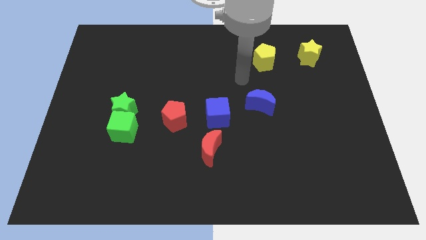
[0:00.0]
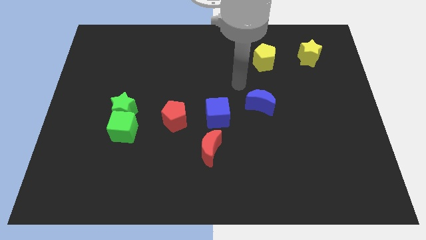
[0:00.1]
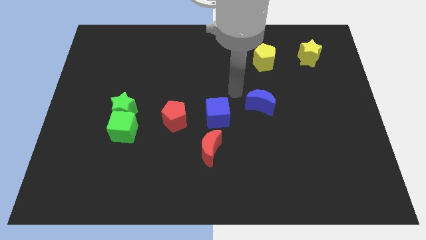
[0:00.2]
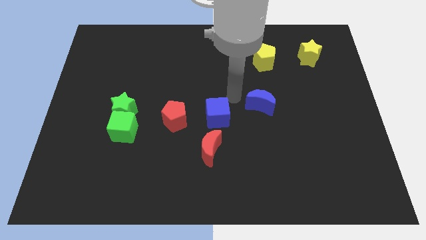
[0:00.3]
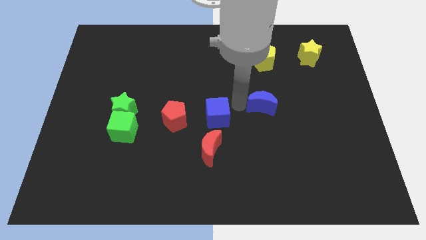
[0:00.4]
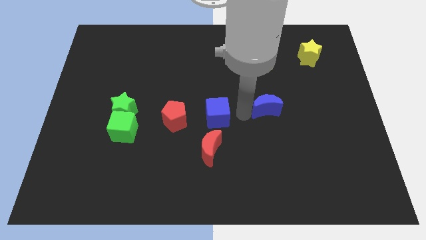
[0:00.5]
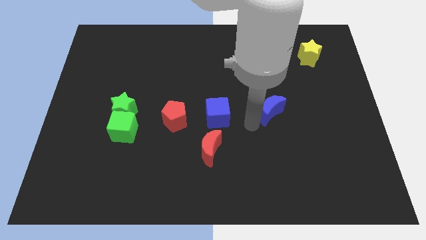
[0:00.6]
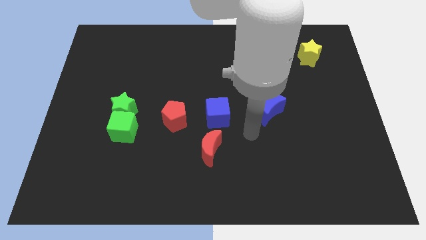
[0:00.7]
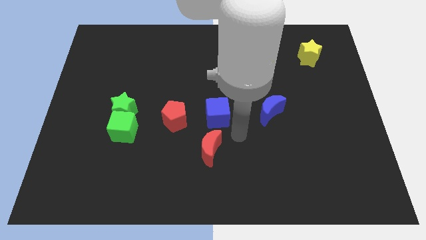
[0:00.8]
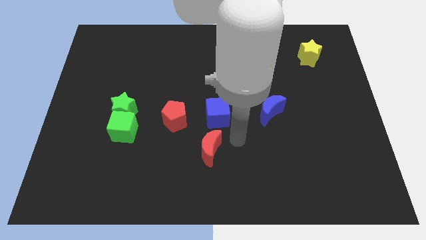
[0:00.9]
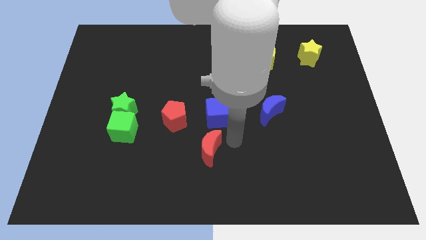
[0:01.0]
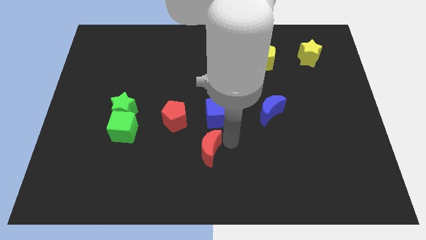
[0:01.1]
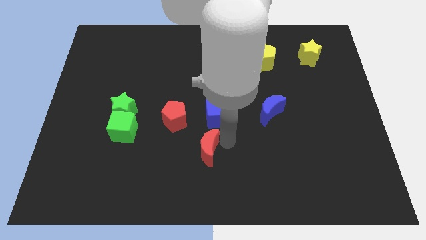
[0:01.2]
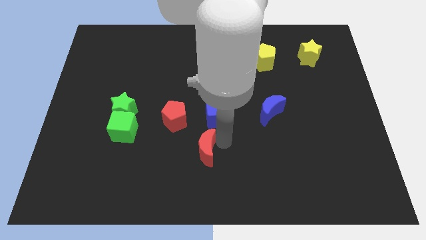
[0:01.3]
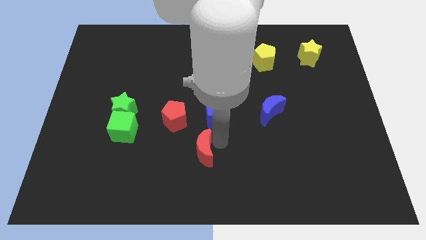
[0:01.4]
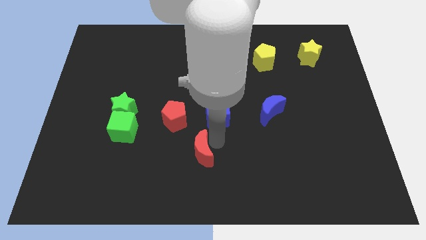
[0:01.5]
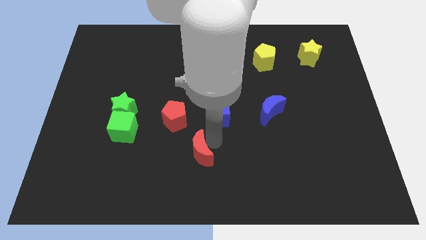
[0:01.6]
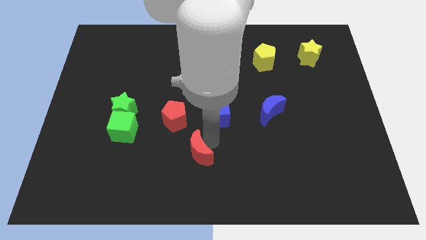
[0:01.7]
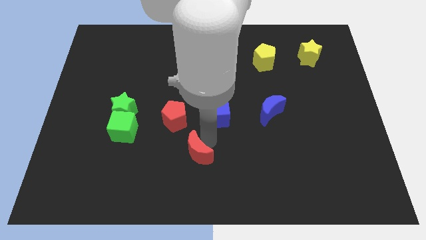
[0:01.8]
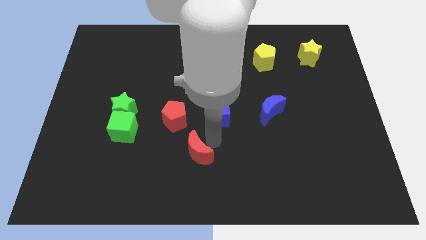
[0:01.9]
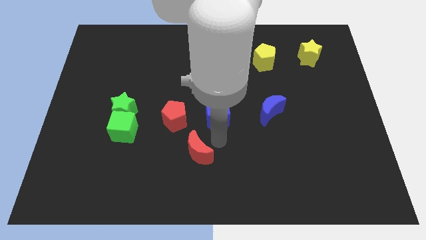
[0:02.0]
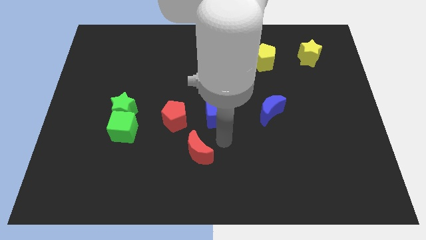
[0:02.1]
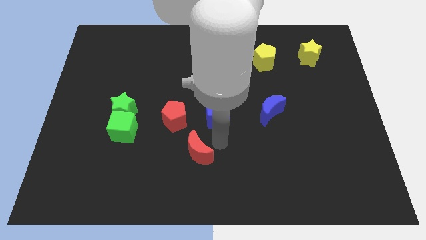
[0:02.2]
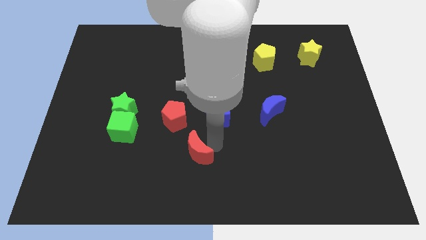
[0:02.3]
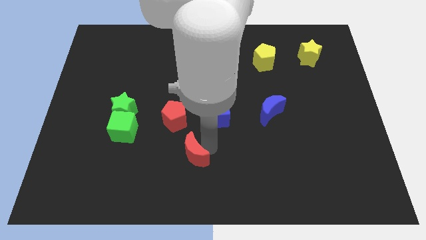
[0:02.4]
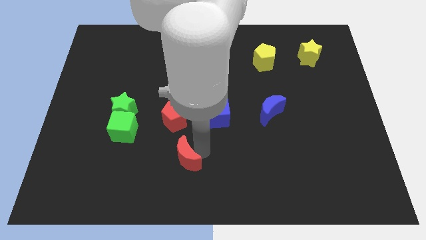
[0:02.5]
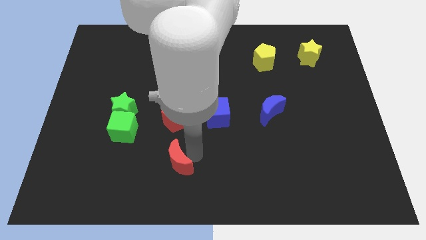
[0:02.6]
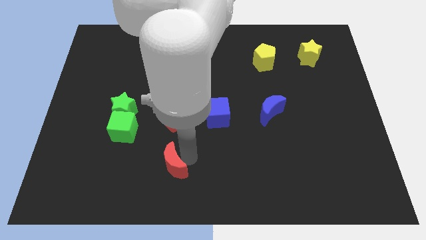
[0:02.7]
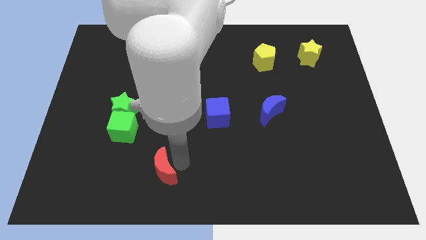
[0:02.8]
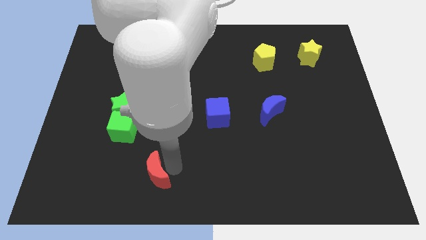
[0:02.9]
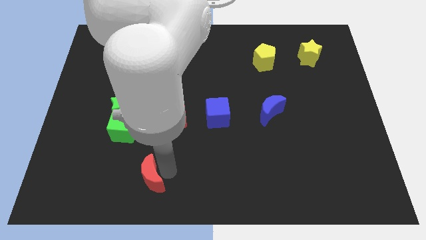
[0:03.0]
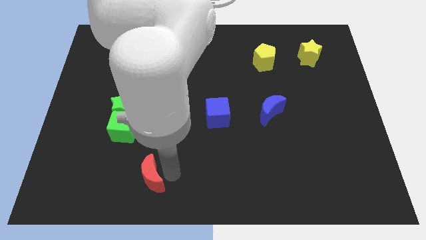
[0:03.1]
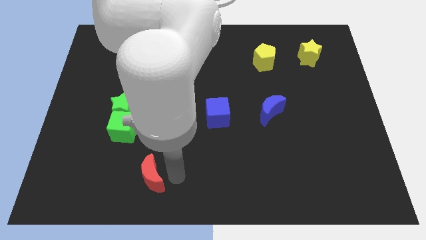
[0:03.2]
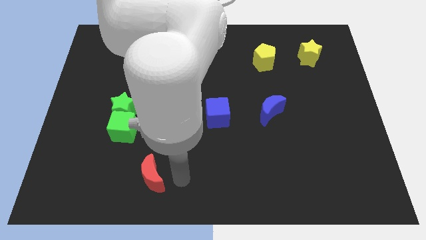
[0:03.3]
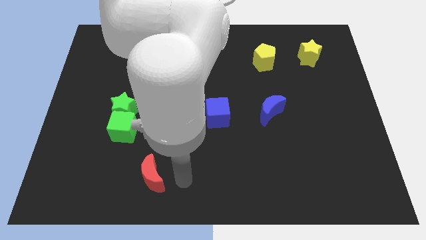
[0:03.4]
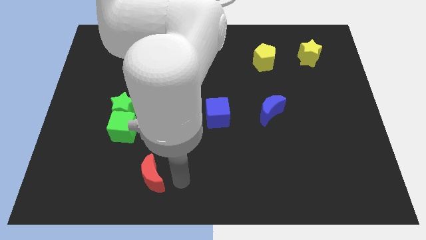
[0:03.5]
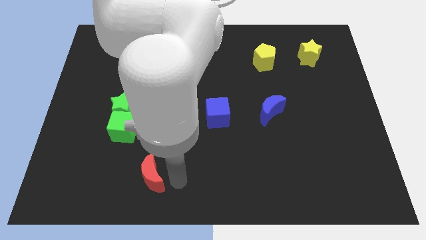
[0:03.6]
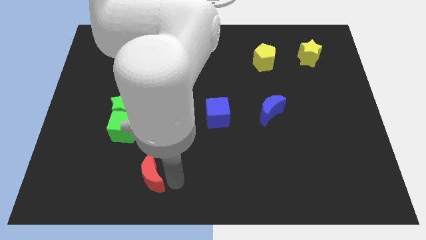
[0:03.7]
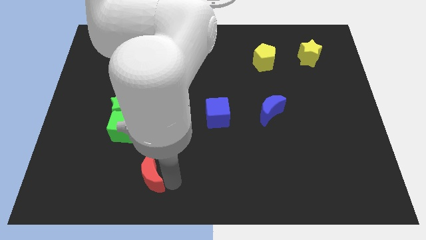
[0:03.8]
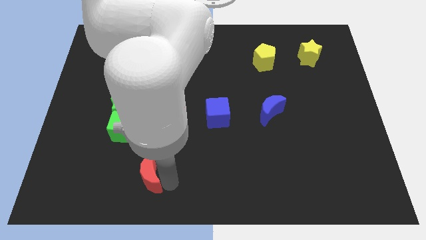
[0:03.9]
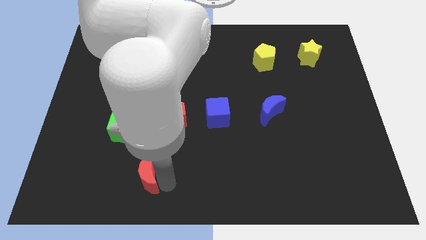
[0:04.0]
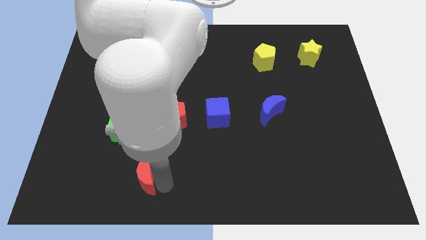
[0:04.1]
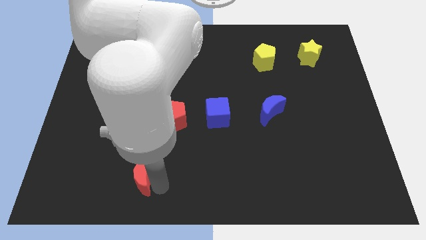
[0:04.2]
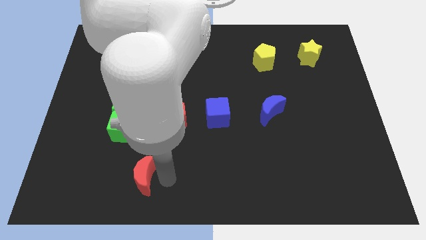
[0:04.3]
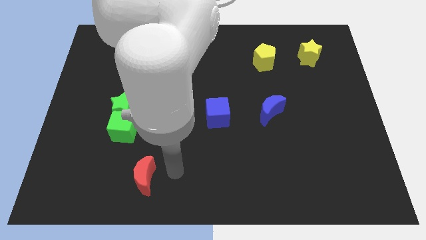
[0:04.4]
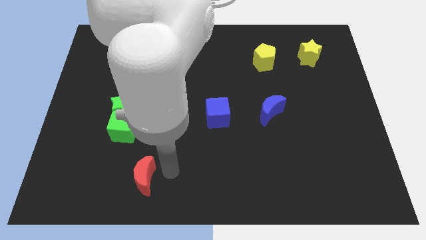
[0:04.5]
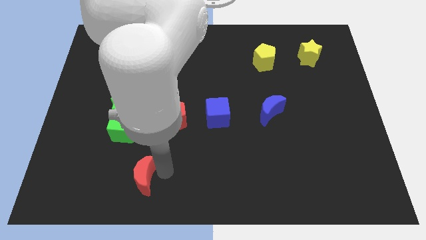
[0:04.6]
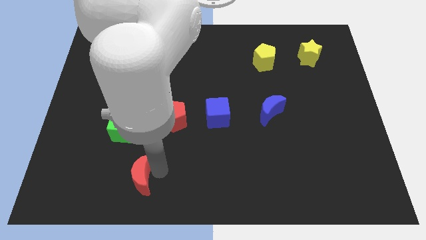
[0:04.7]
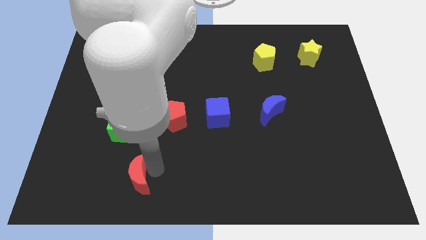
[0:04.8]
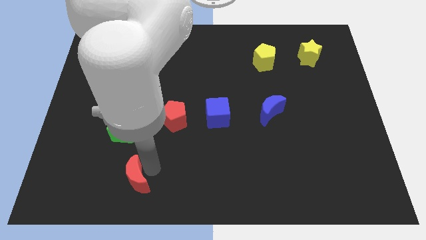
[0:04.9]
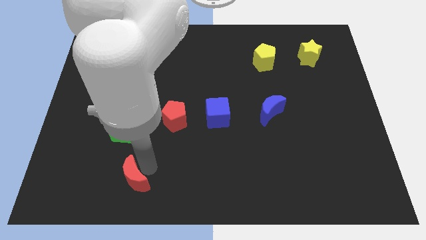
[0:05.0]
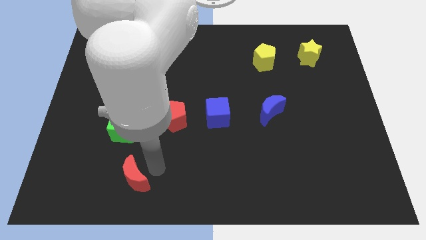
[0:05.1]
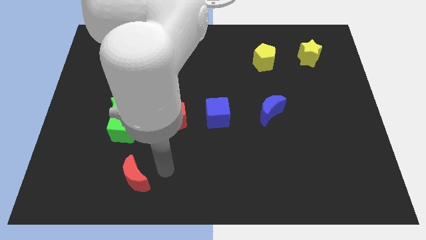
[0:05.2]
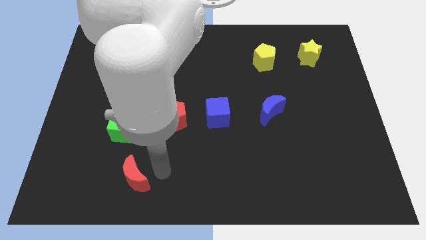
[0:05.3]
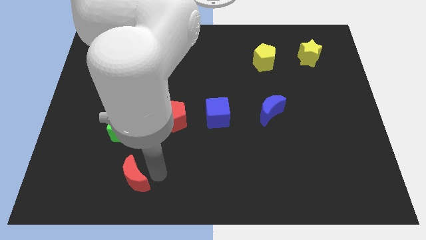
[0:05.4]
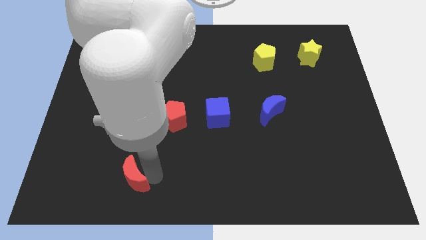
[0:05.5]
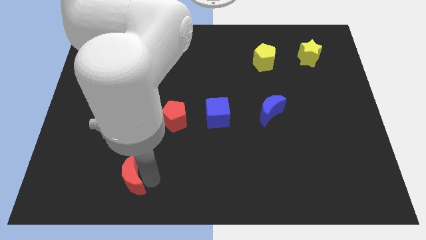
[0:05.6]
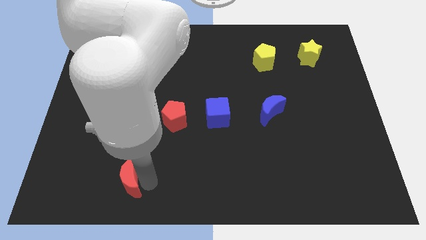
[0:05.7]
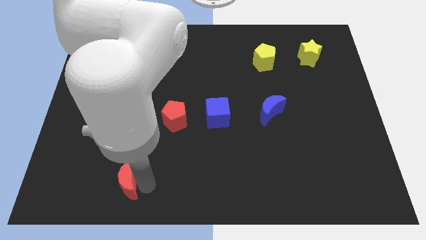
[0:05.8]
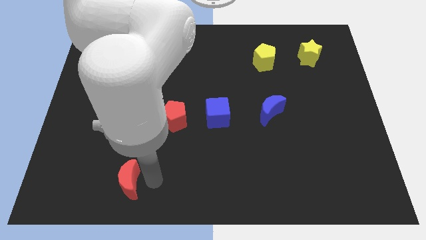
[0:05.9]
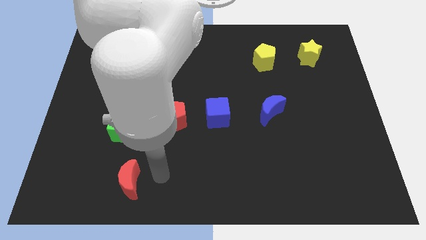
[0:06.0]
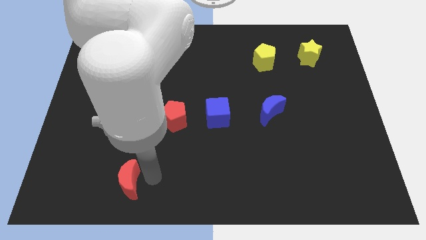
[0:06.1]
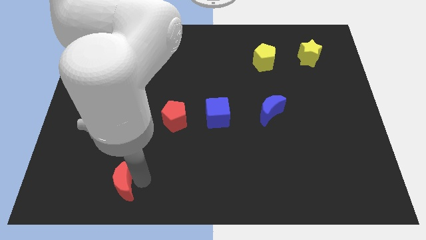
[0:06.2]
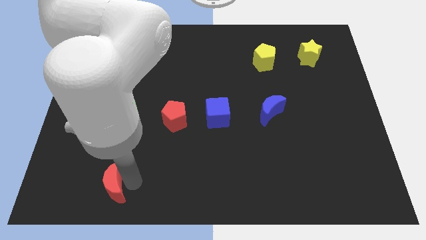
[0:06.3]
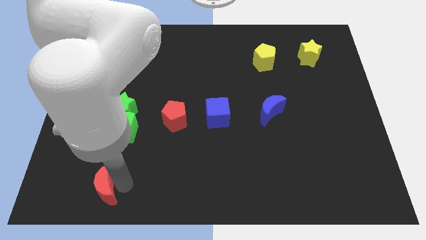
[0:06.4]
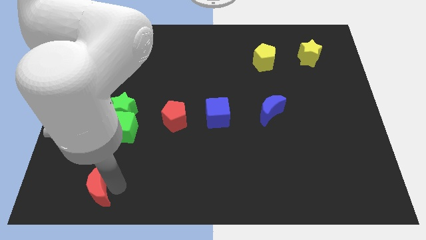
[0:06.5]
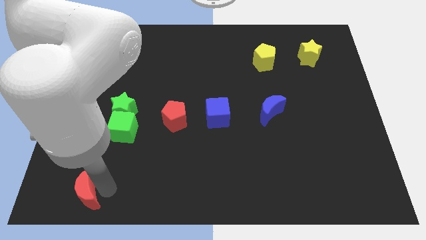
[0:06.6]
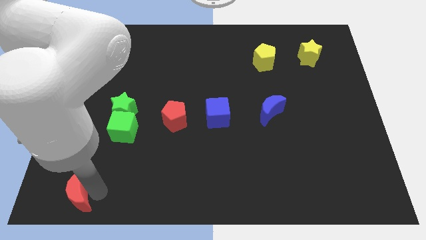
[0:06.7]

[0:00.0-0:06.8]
push the red moon to the lower left corner
